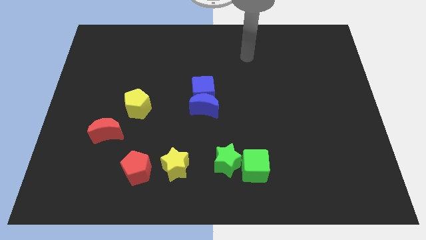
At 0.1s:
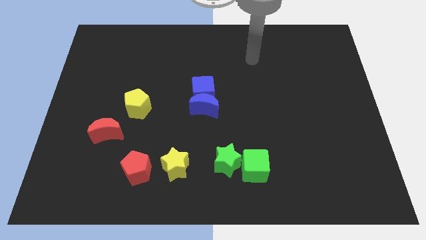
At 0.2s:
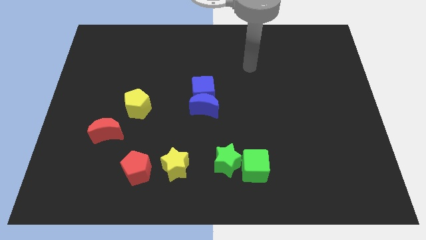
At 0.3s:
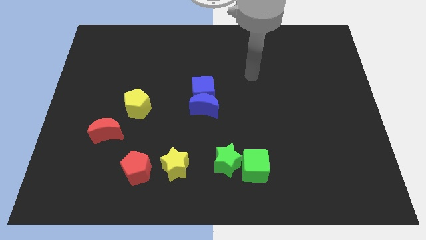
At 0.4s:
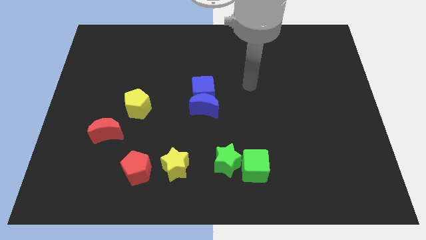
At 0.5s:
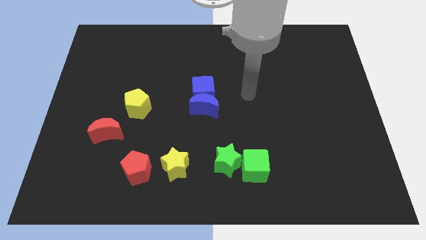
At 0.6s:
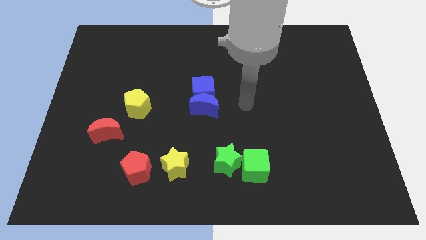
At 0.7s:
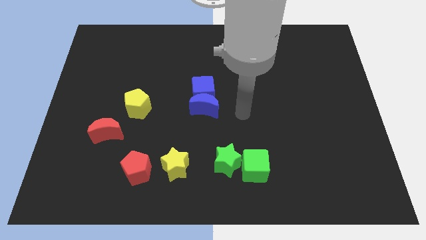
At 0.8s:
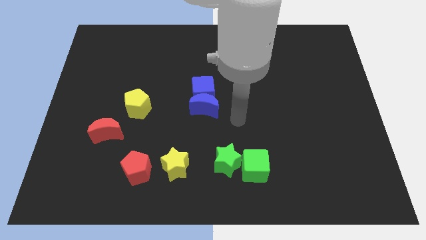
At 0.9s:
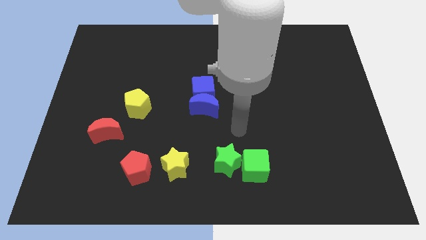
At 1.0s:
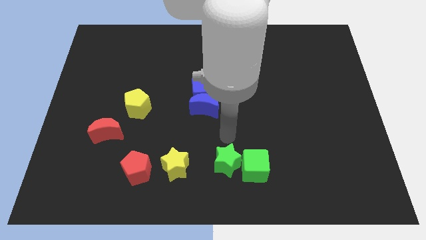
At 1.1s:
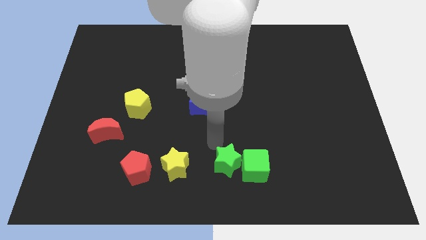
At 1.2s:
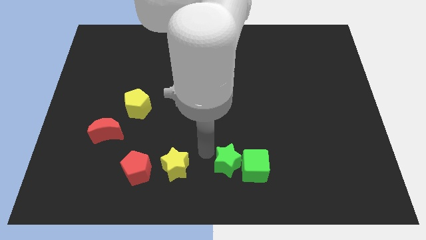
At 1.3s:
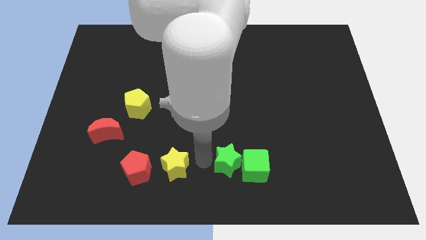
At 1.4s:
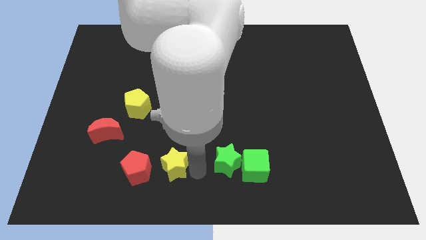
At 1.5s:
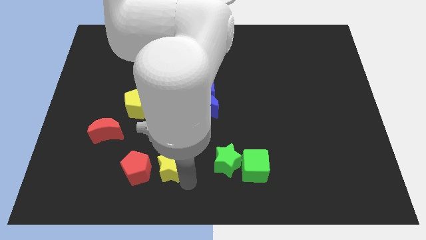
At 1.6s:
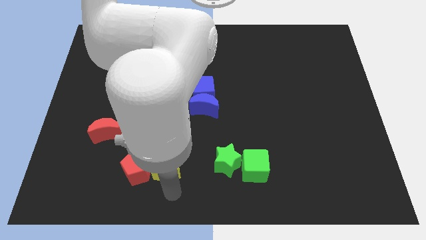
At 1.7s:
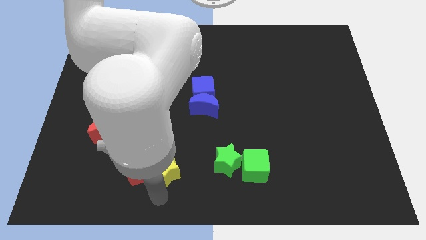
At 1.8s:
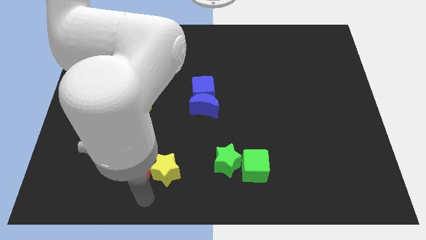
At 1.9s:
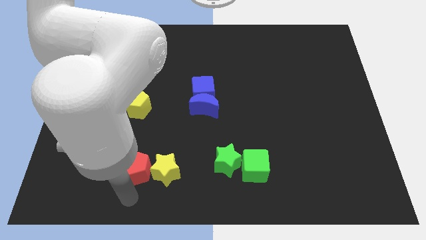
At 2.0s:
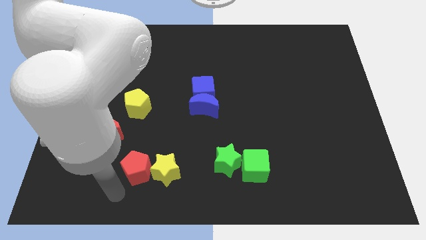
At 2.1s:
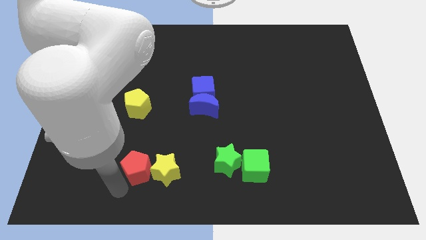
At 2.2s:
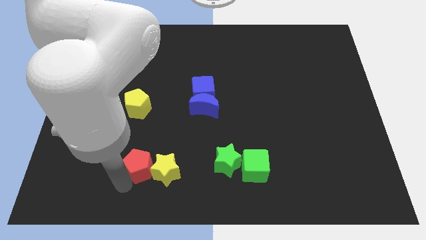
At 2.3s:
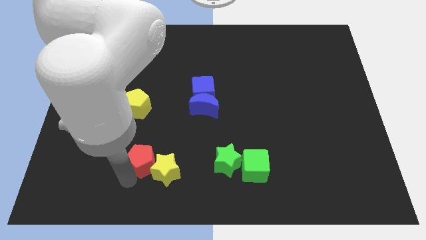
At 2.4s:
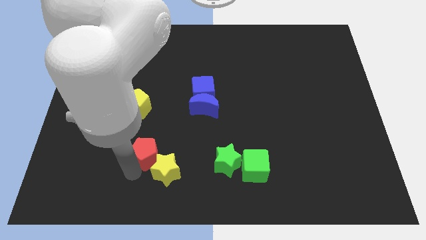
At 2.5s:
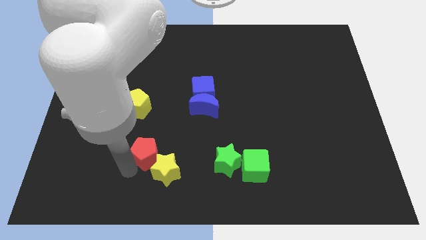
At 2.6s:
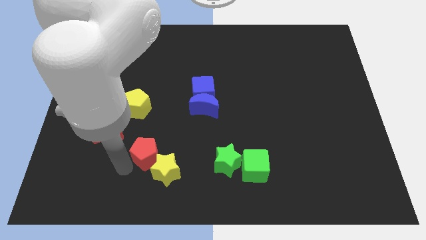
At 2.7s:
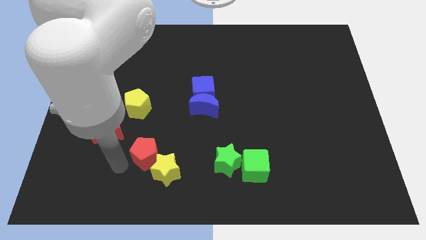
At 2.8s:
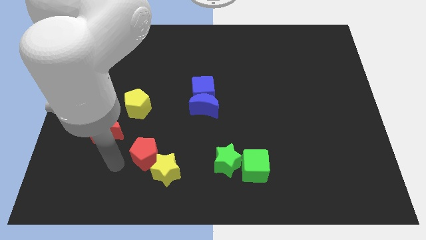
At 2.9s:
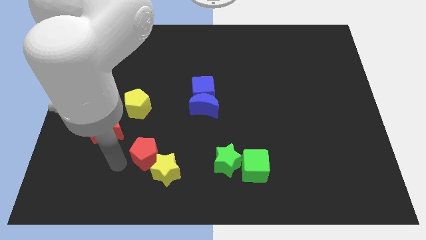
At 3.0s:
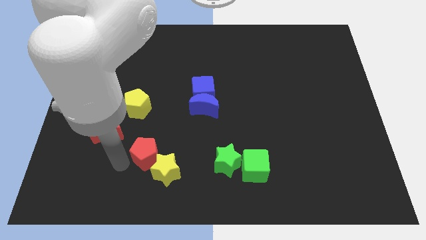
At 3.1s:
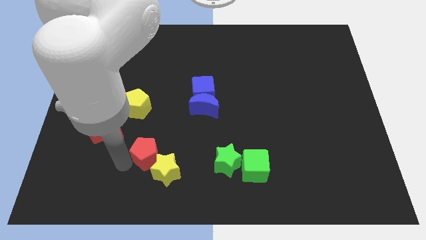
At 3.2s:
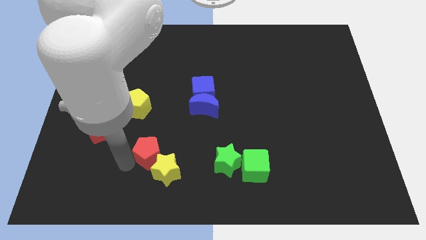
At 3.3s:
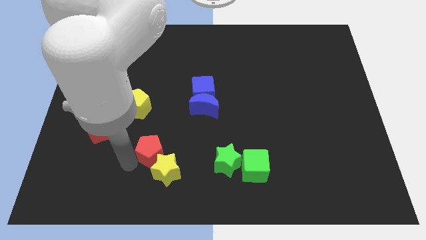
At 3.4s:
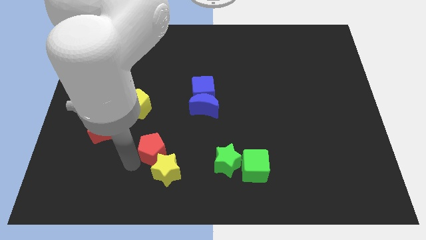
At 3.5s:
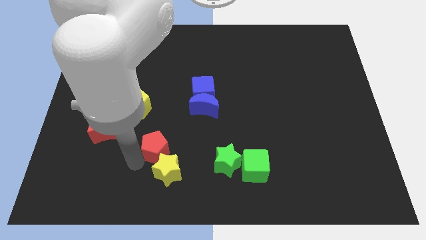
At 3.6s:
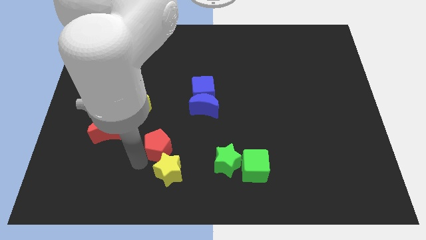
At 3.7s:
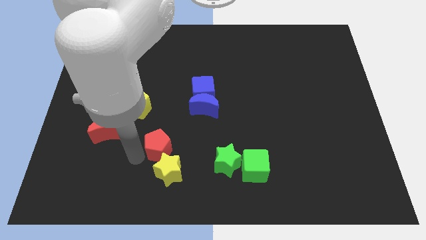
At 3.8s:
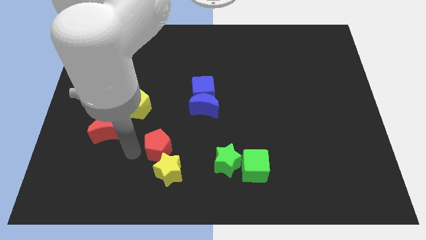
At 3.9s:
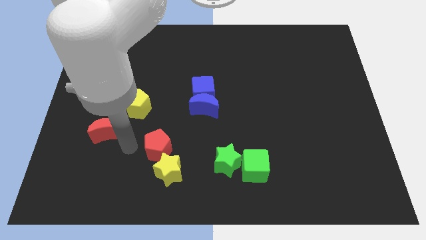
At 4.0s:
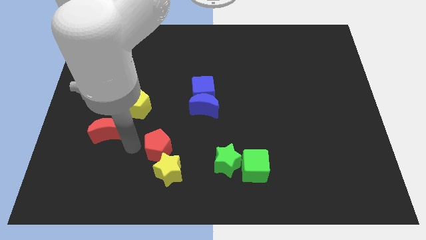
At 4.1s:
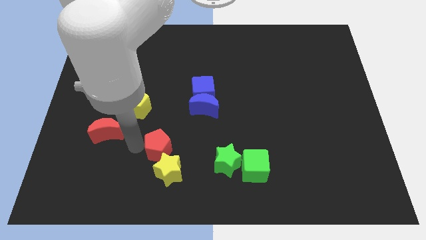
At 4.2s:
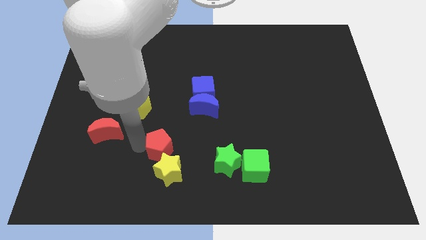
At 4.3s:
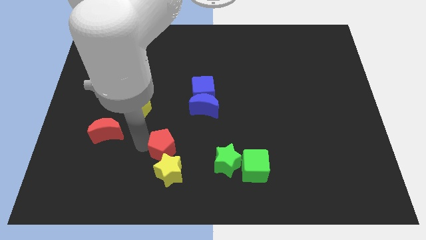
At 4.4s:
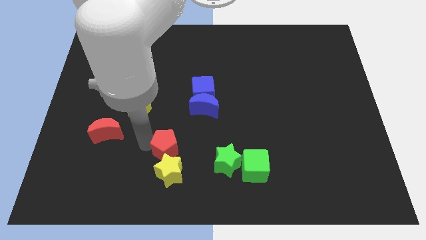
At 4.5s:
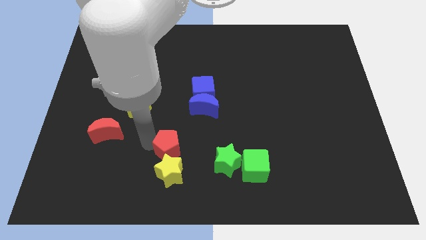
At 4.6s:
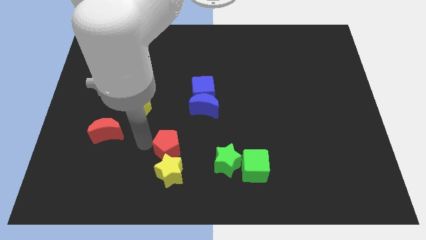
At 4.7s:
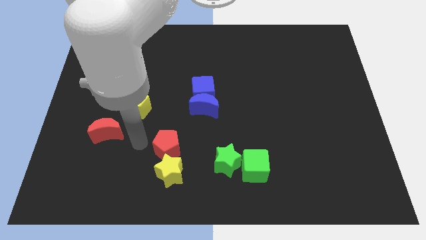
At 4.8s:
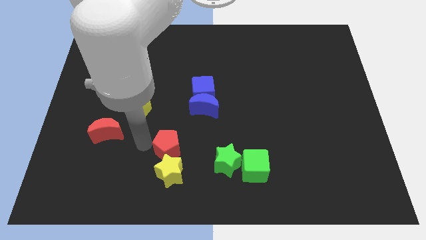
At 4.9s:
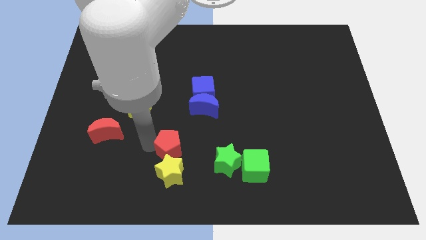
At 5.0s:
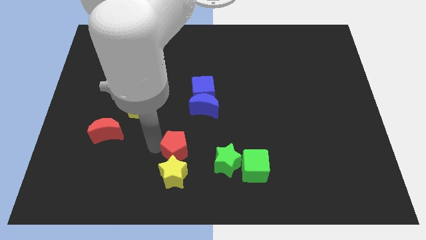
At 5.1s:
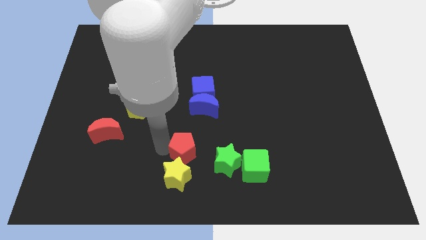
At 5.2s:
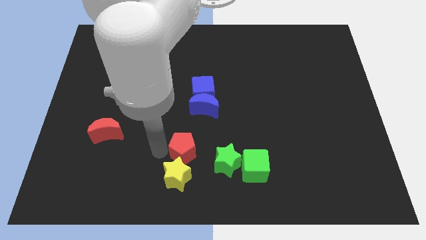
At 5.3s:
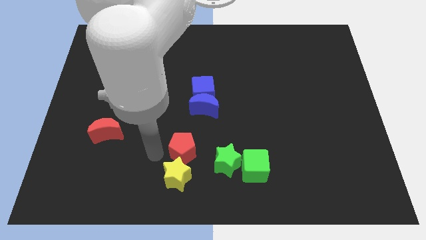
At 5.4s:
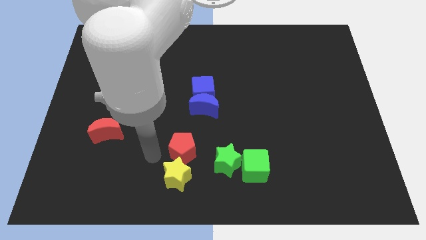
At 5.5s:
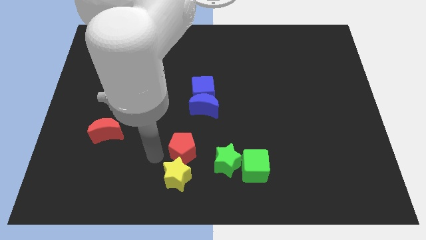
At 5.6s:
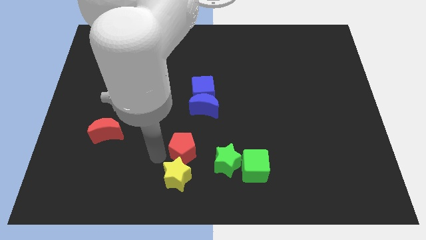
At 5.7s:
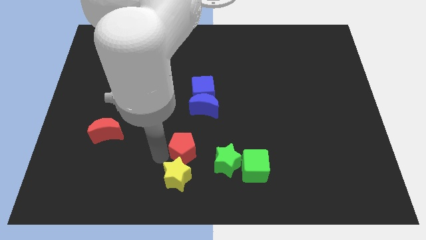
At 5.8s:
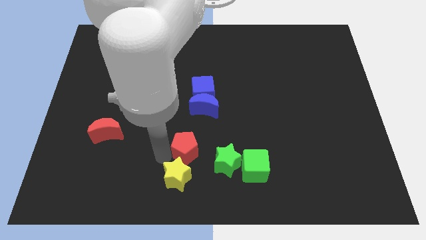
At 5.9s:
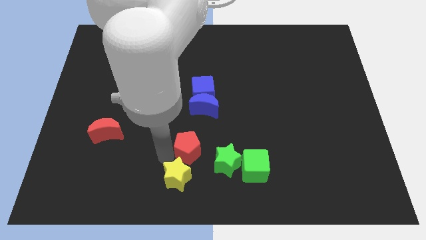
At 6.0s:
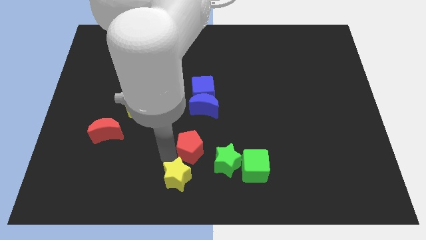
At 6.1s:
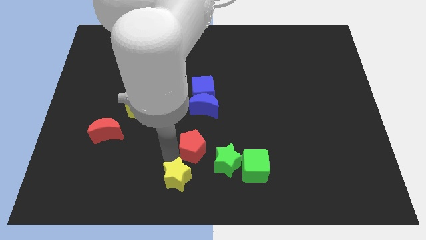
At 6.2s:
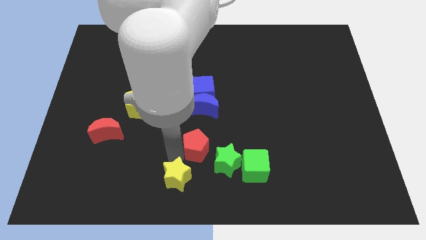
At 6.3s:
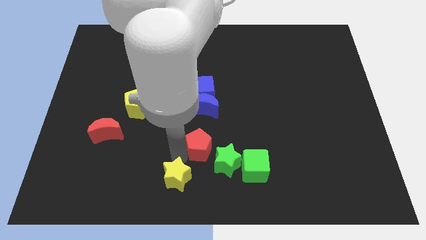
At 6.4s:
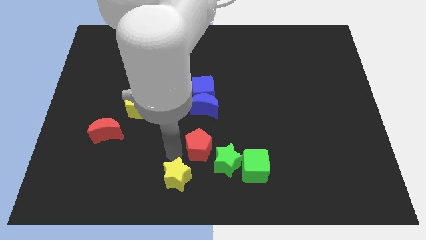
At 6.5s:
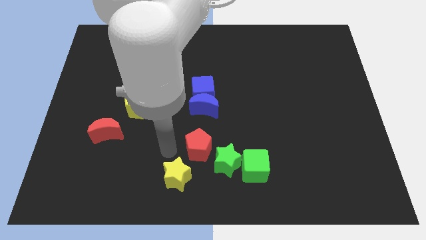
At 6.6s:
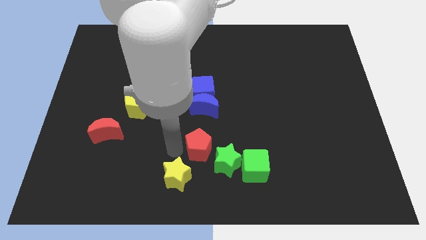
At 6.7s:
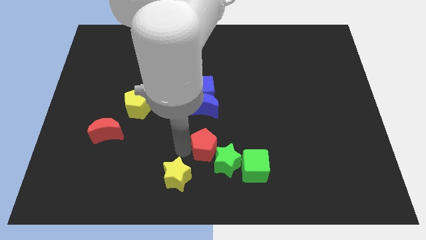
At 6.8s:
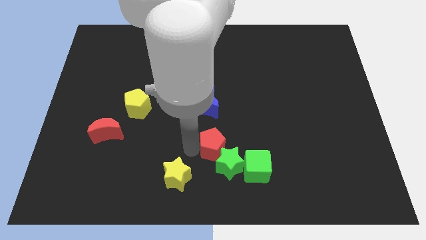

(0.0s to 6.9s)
move the red pentagon to the top left of the green cube

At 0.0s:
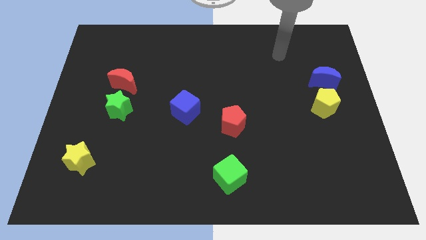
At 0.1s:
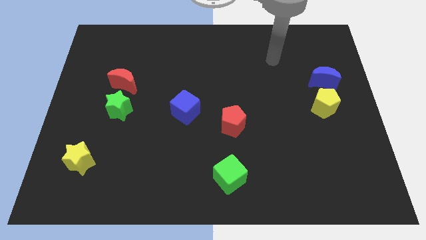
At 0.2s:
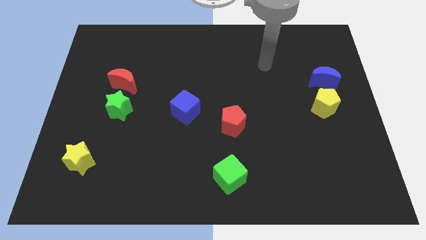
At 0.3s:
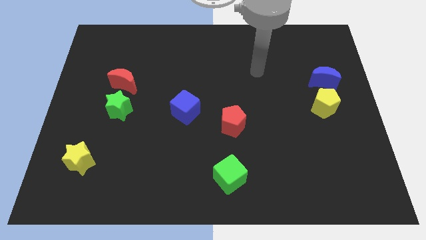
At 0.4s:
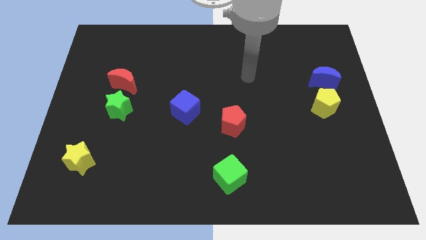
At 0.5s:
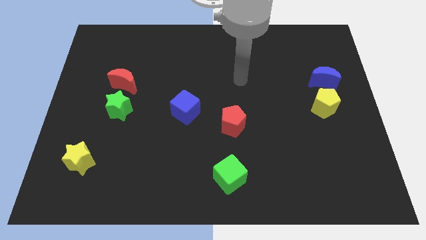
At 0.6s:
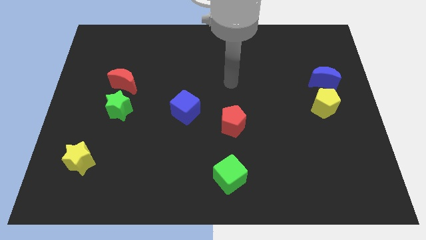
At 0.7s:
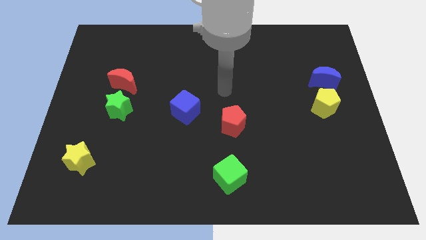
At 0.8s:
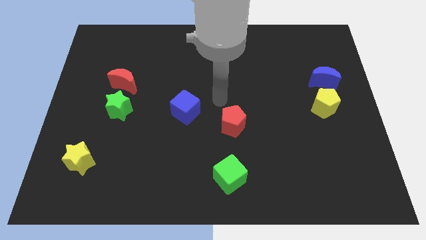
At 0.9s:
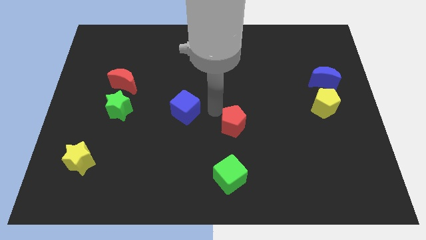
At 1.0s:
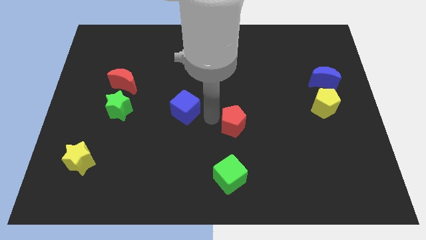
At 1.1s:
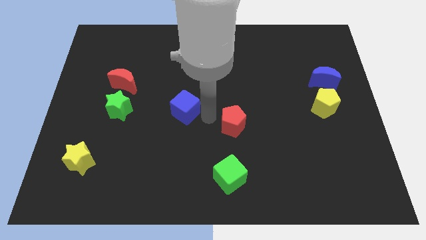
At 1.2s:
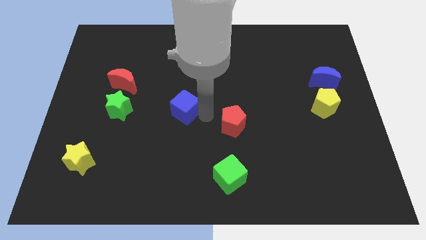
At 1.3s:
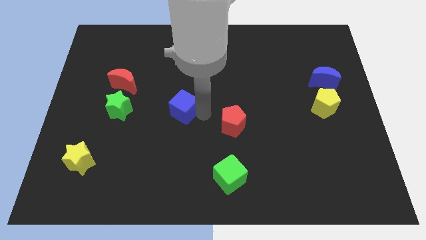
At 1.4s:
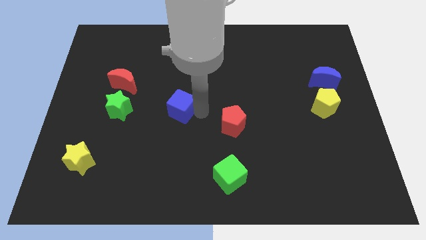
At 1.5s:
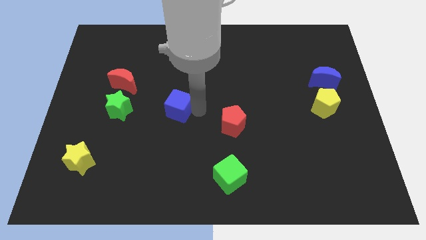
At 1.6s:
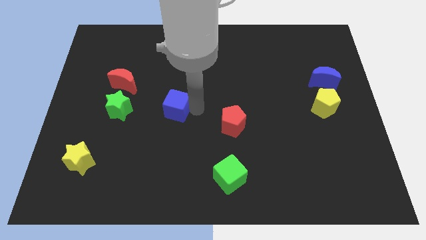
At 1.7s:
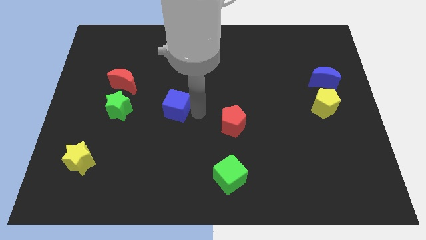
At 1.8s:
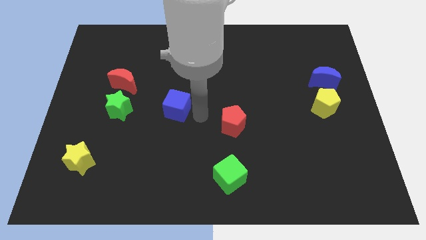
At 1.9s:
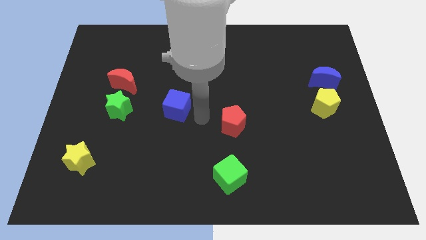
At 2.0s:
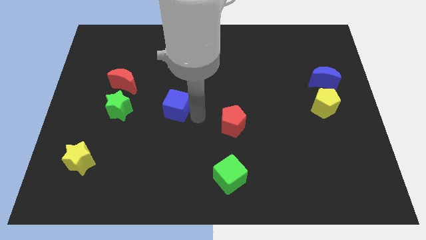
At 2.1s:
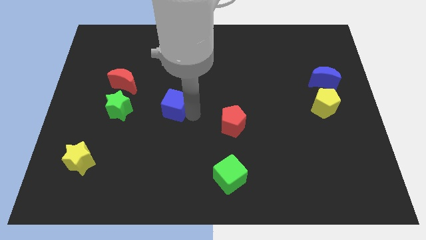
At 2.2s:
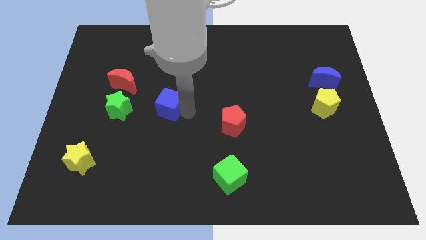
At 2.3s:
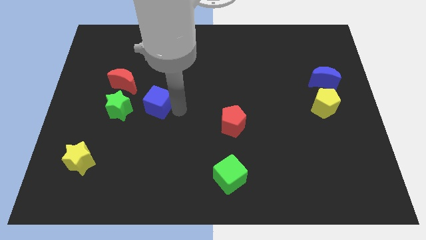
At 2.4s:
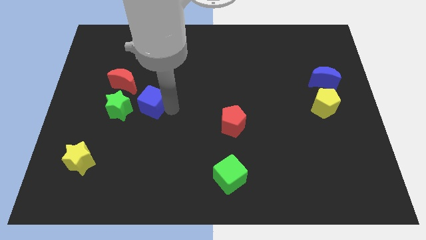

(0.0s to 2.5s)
push the blue cube diagonally up and to the right of the green star
